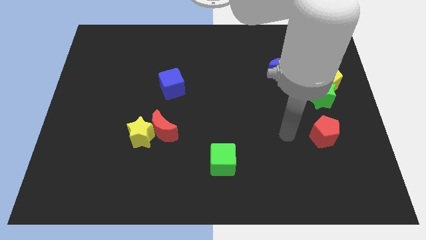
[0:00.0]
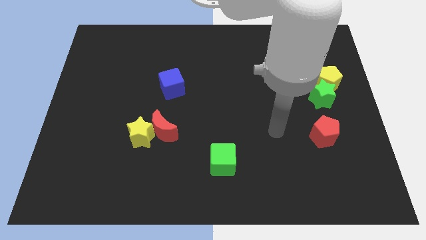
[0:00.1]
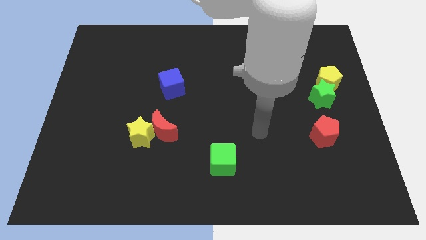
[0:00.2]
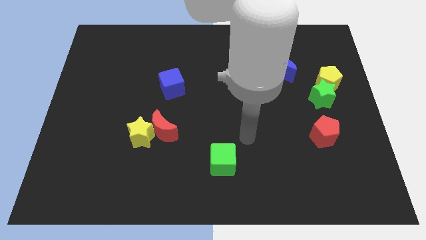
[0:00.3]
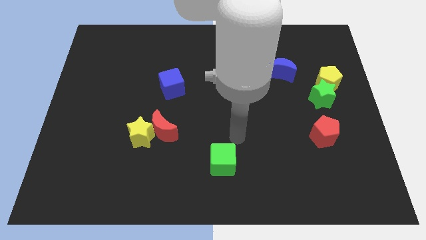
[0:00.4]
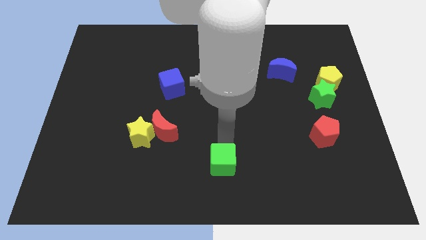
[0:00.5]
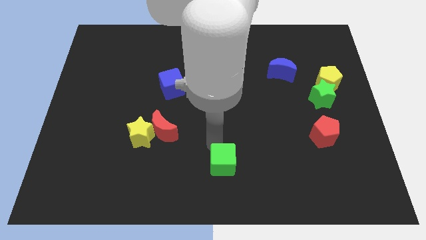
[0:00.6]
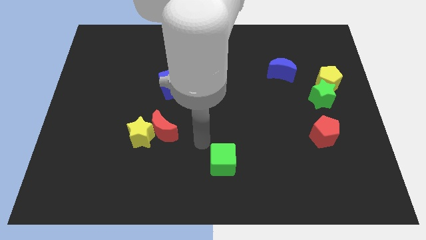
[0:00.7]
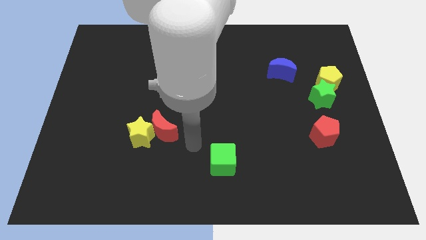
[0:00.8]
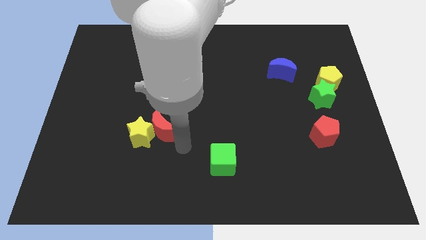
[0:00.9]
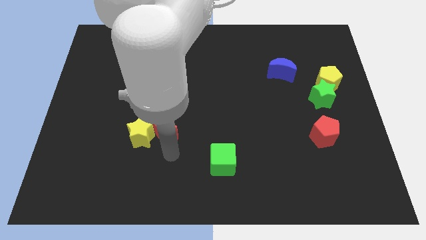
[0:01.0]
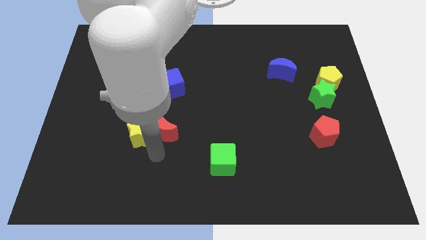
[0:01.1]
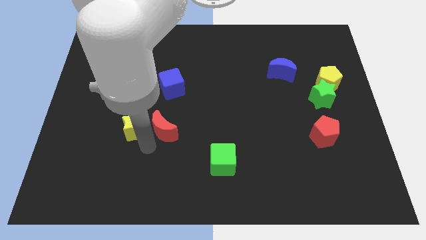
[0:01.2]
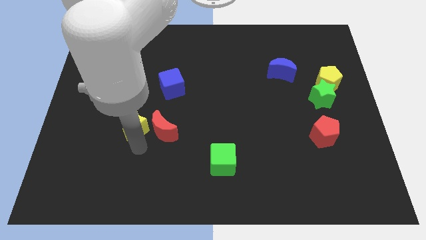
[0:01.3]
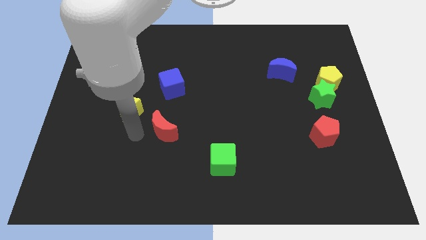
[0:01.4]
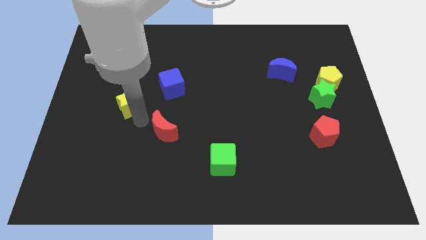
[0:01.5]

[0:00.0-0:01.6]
move the red moon away from the yellow star

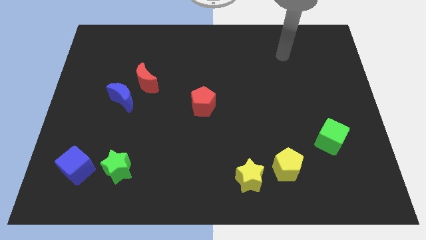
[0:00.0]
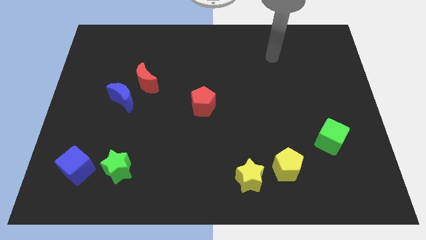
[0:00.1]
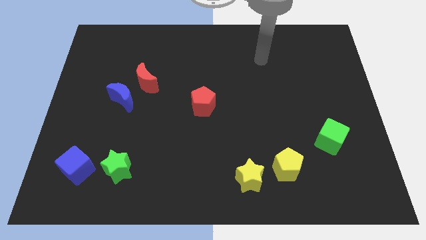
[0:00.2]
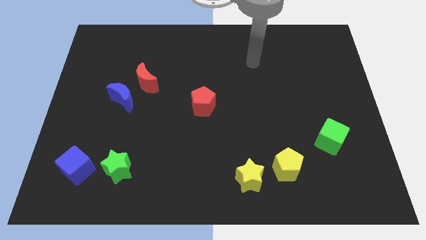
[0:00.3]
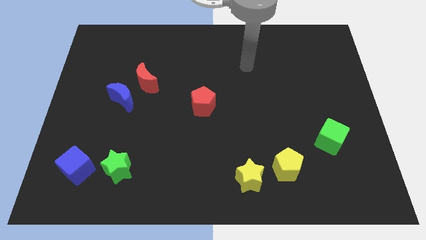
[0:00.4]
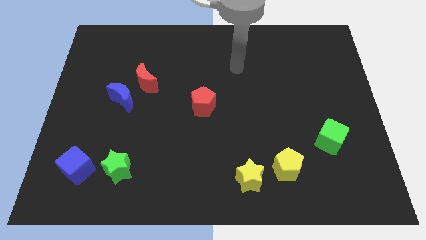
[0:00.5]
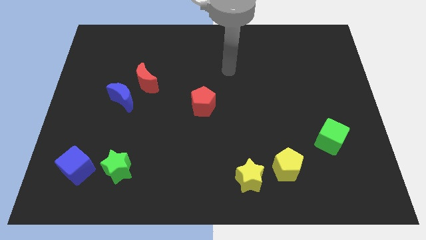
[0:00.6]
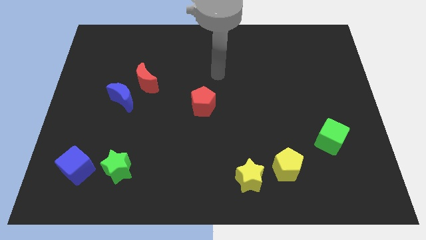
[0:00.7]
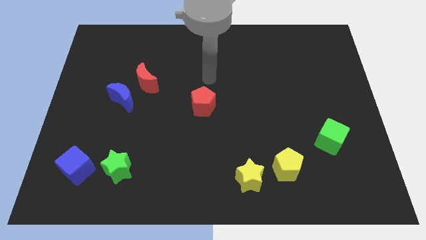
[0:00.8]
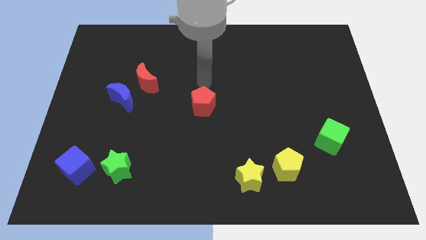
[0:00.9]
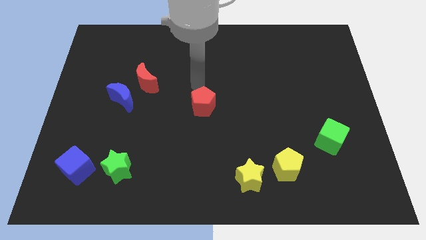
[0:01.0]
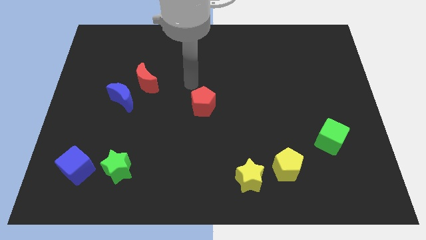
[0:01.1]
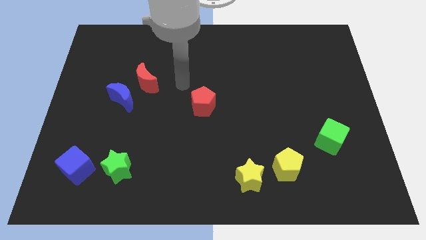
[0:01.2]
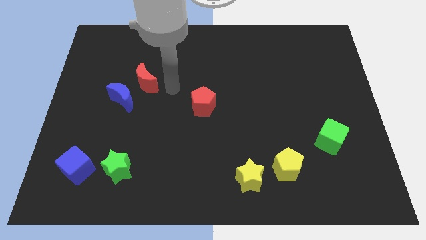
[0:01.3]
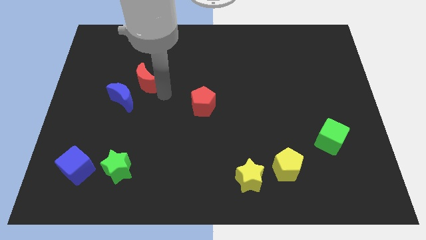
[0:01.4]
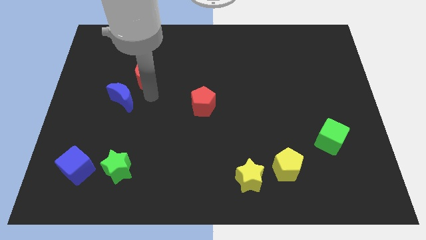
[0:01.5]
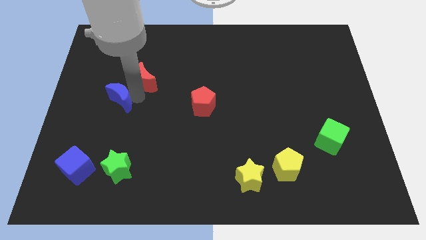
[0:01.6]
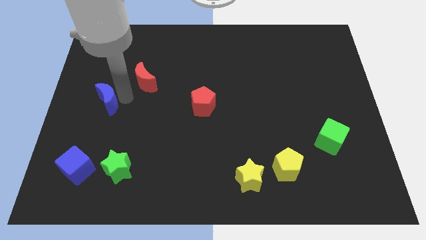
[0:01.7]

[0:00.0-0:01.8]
separate the red moon from the blue moon

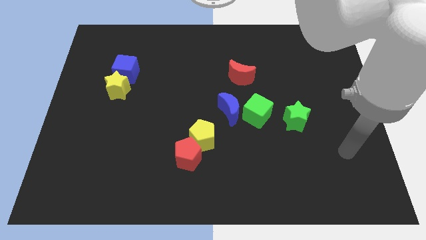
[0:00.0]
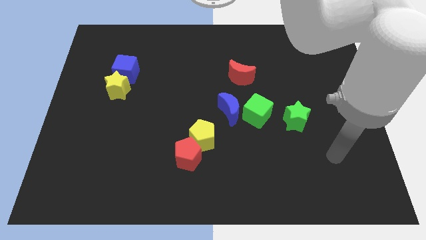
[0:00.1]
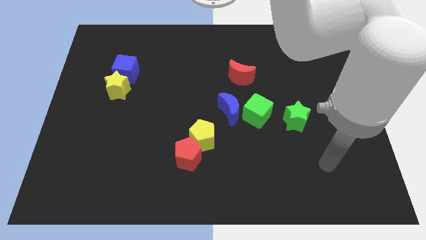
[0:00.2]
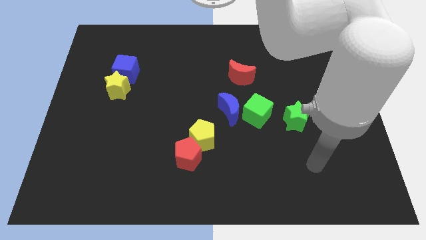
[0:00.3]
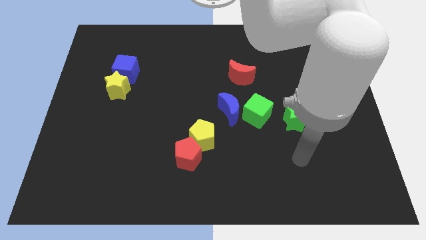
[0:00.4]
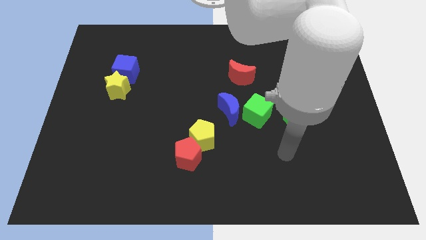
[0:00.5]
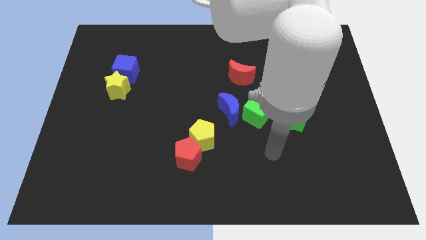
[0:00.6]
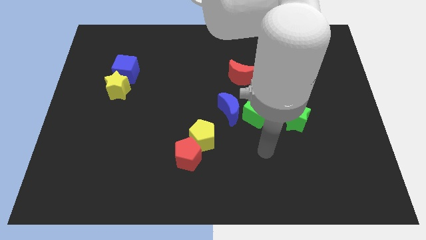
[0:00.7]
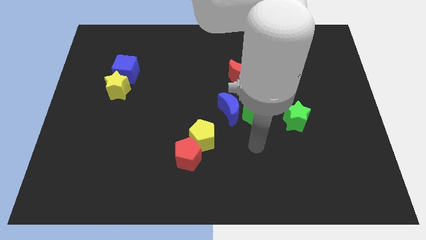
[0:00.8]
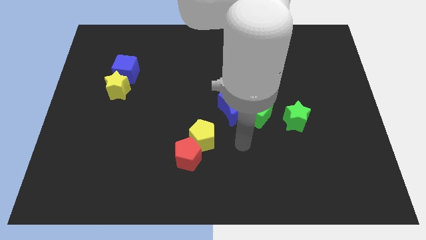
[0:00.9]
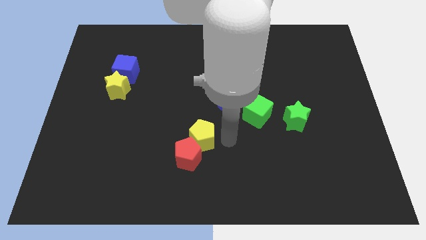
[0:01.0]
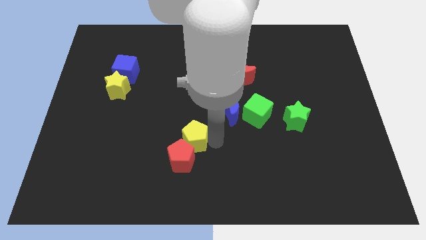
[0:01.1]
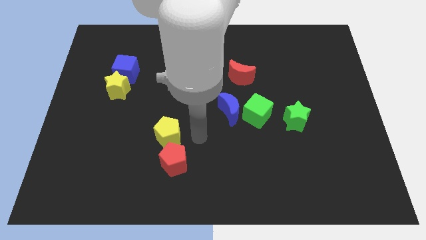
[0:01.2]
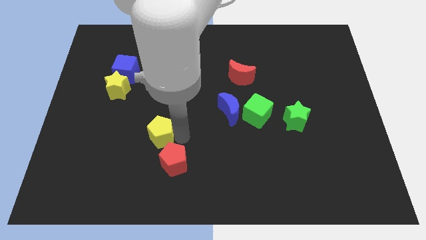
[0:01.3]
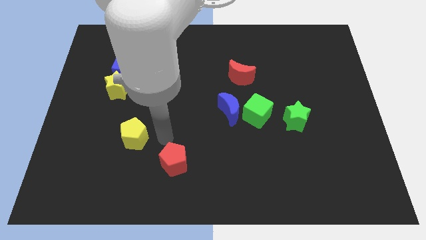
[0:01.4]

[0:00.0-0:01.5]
move the red pentagon away from the yellow pentagon

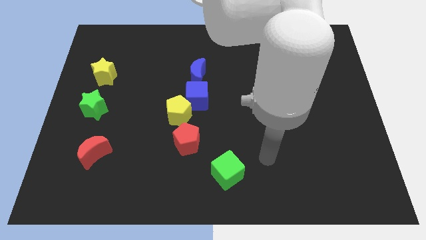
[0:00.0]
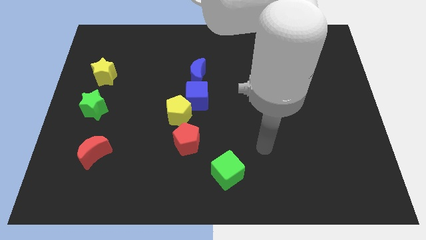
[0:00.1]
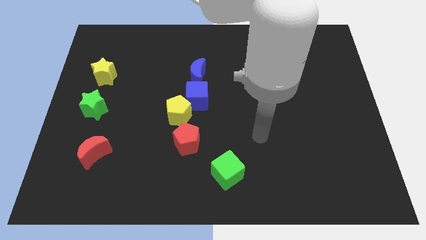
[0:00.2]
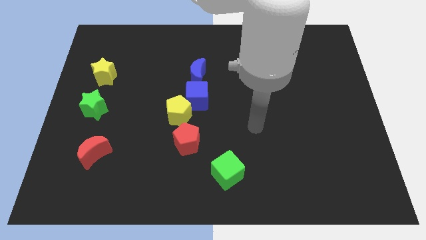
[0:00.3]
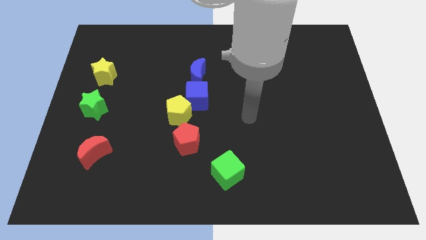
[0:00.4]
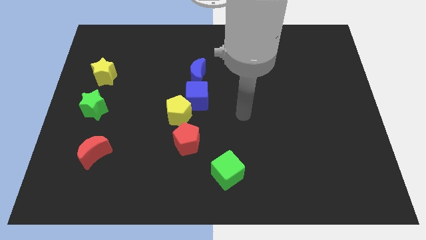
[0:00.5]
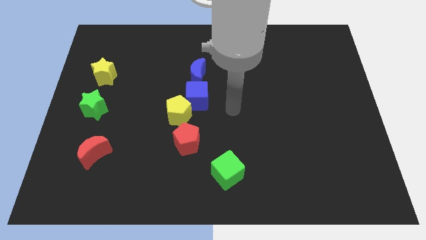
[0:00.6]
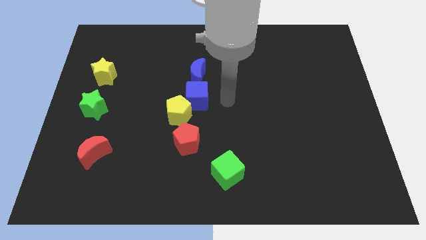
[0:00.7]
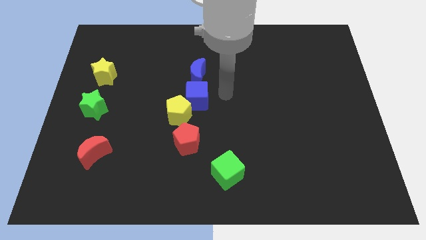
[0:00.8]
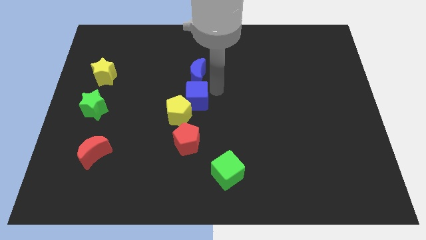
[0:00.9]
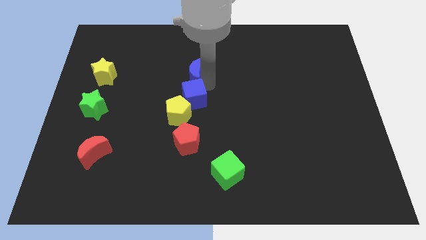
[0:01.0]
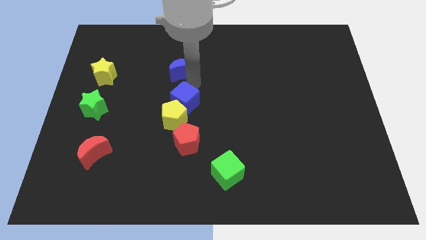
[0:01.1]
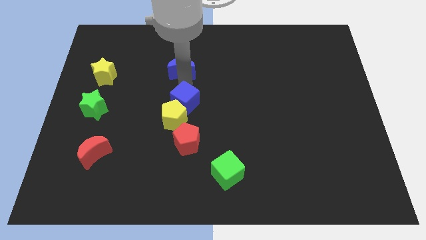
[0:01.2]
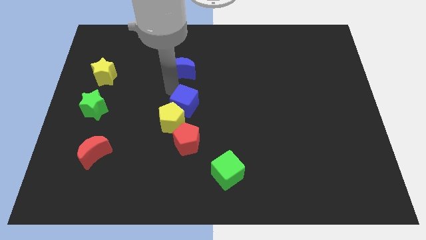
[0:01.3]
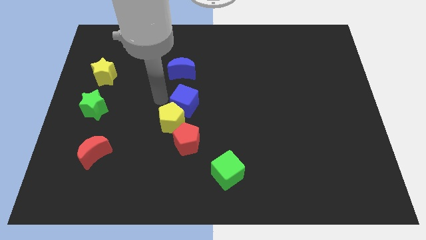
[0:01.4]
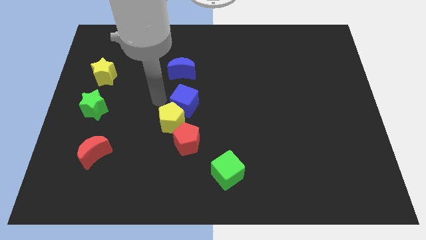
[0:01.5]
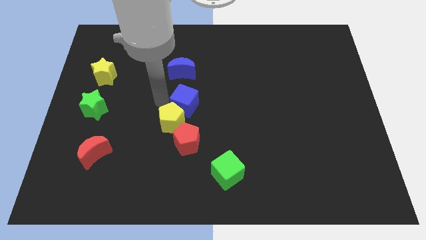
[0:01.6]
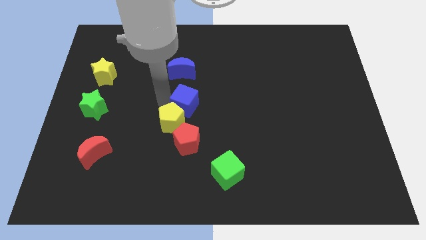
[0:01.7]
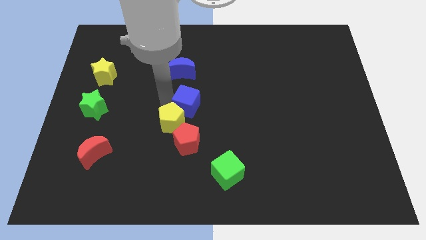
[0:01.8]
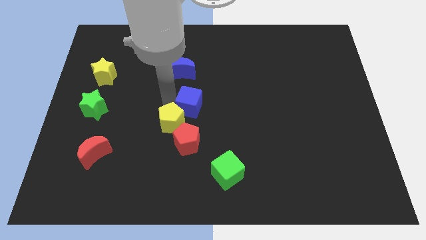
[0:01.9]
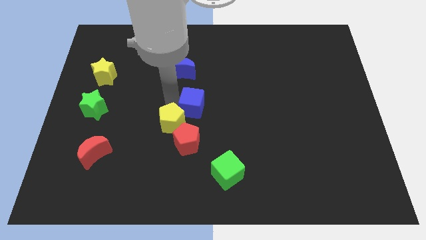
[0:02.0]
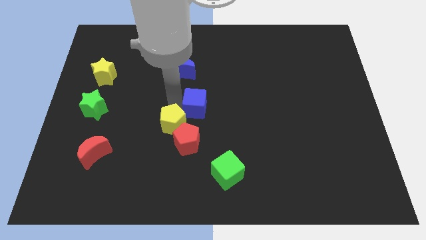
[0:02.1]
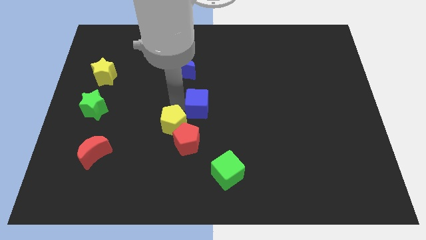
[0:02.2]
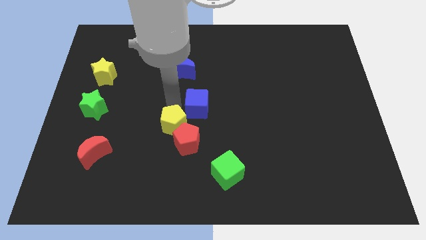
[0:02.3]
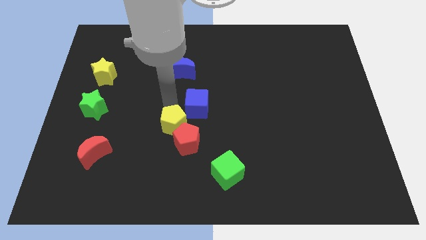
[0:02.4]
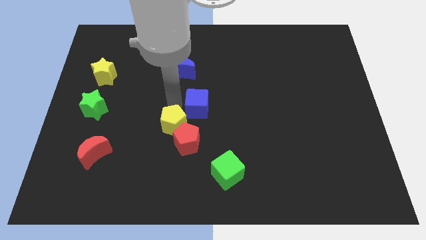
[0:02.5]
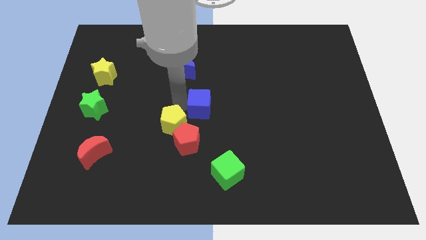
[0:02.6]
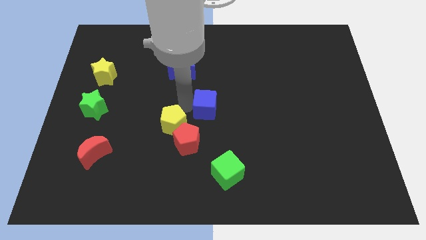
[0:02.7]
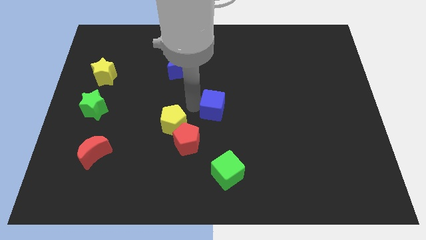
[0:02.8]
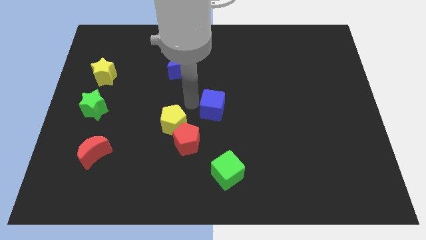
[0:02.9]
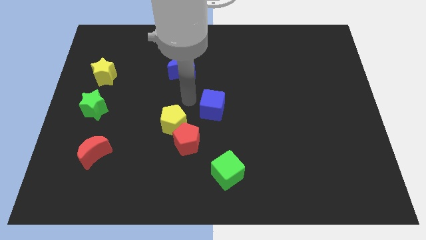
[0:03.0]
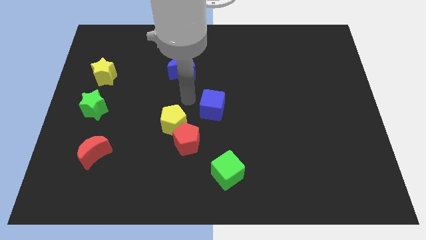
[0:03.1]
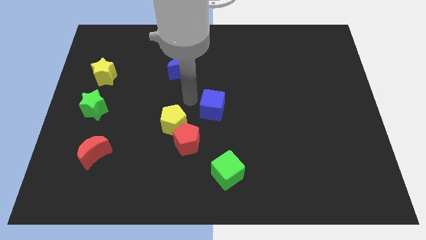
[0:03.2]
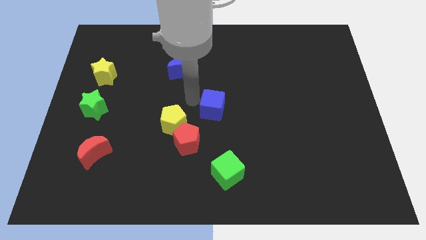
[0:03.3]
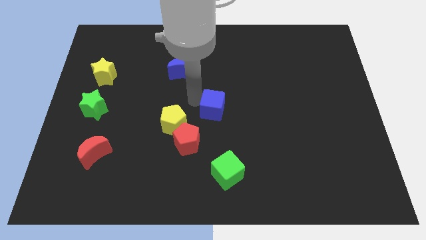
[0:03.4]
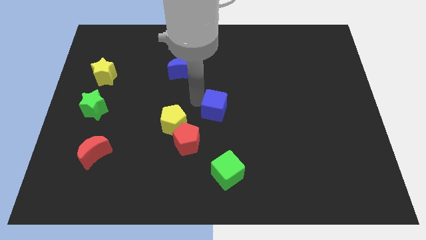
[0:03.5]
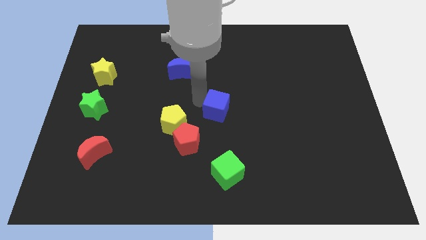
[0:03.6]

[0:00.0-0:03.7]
separate the blue cube from the yellow pentagon and blue moon

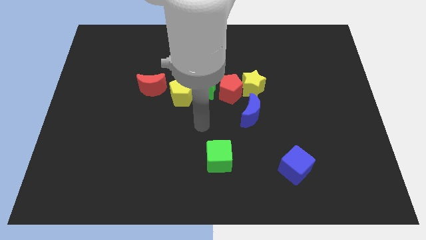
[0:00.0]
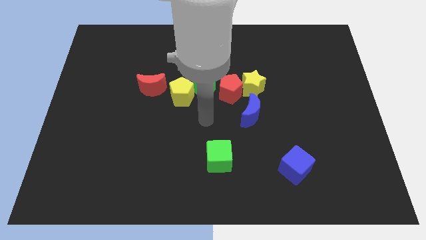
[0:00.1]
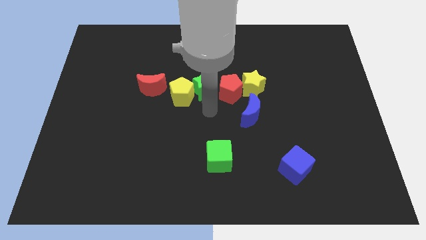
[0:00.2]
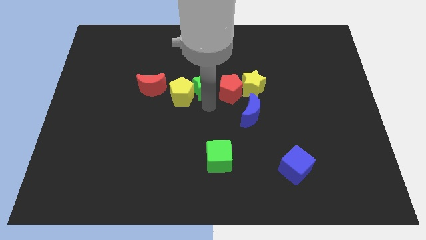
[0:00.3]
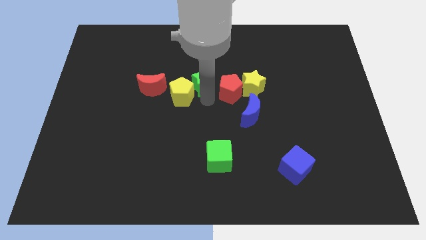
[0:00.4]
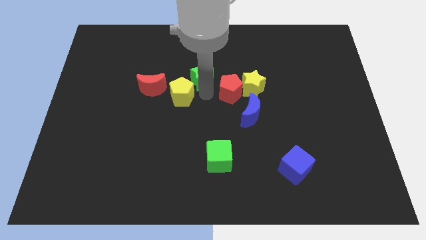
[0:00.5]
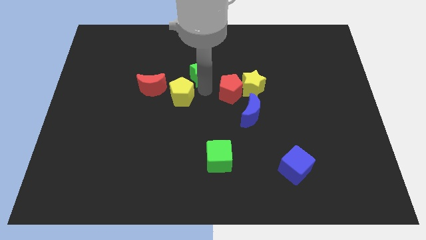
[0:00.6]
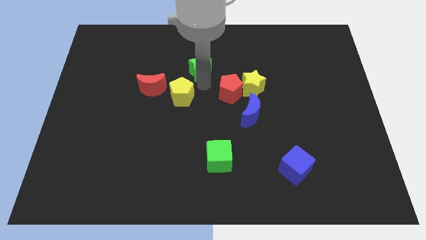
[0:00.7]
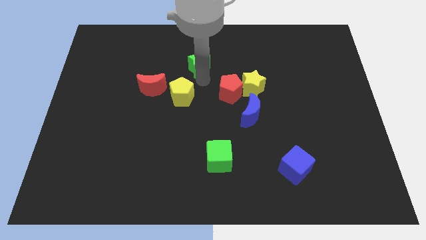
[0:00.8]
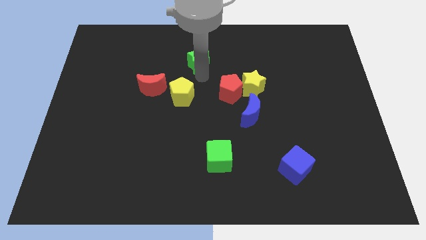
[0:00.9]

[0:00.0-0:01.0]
separate the green star from the yellow pentagon and red pentagon
